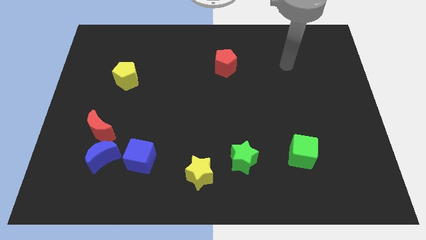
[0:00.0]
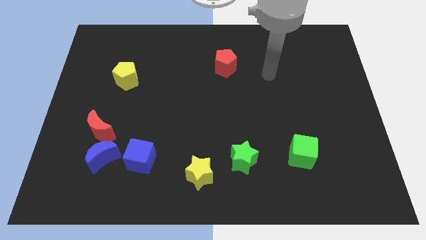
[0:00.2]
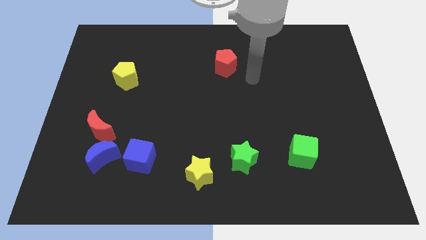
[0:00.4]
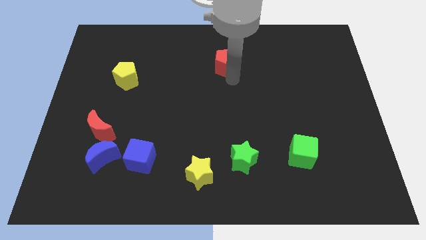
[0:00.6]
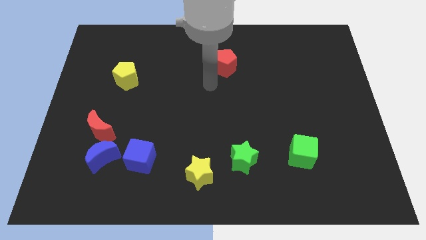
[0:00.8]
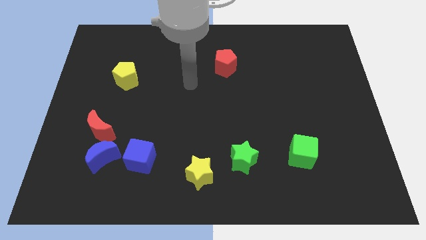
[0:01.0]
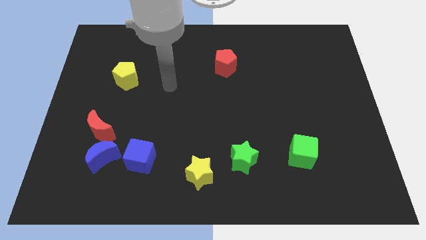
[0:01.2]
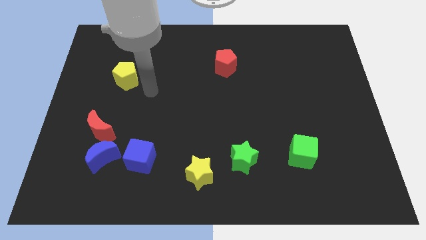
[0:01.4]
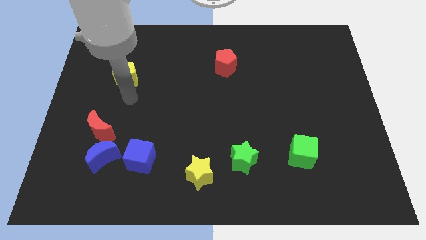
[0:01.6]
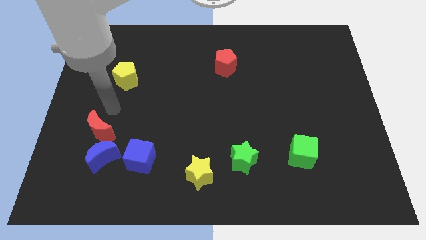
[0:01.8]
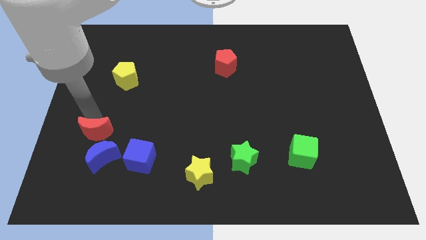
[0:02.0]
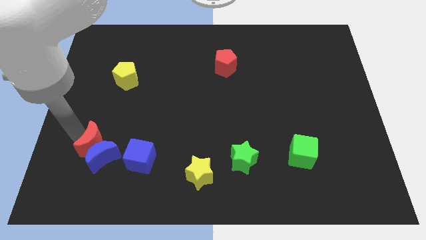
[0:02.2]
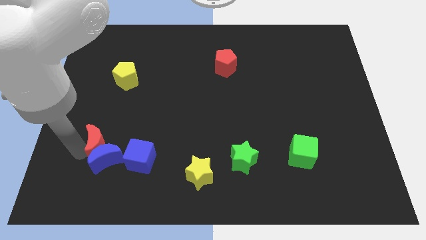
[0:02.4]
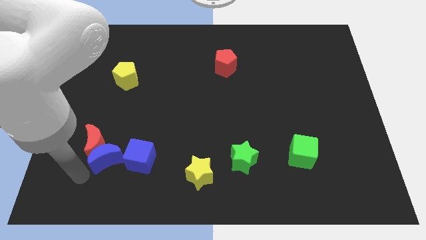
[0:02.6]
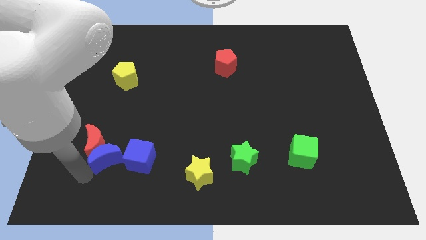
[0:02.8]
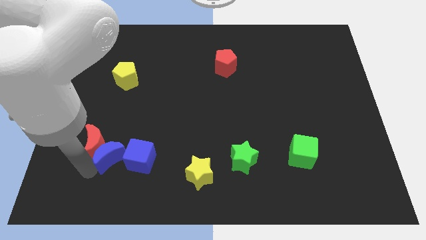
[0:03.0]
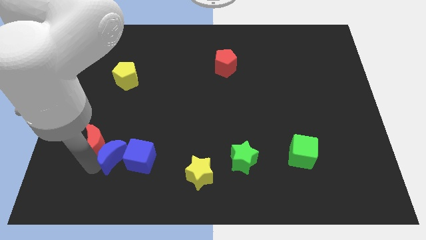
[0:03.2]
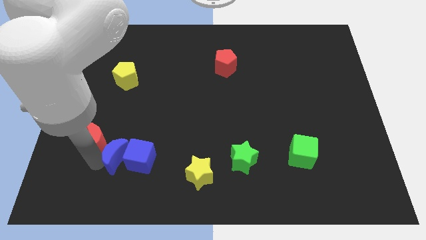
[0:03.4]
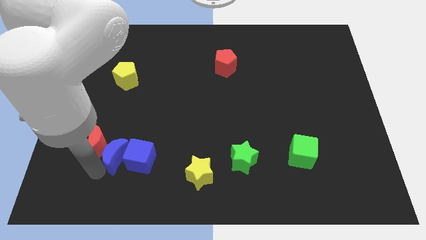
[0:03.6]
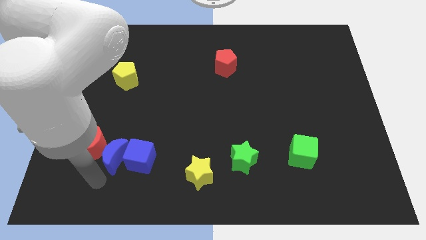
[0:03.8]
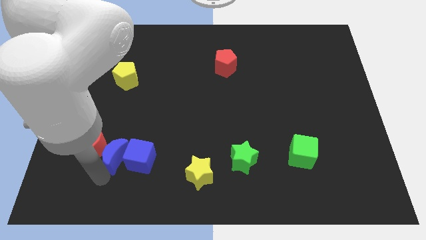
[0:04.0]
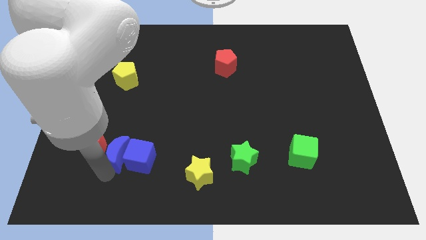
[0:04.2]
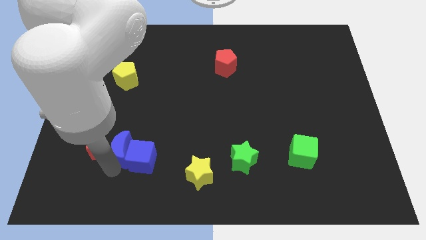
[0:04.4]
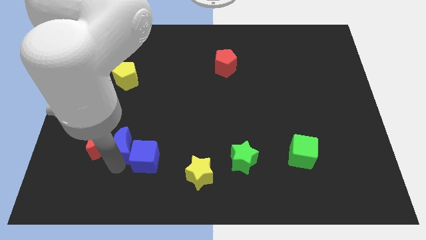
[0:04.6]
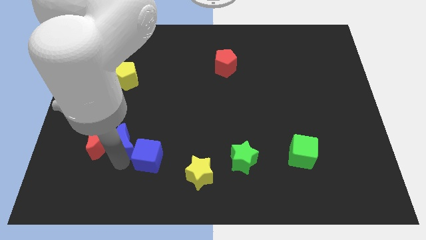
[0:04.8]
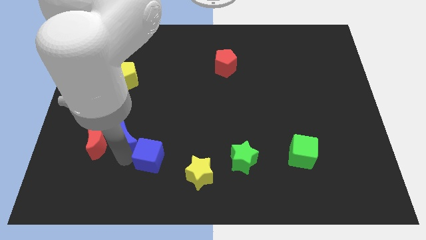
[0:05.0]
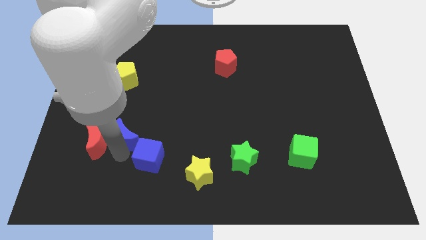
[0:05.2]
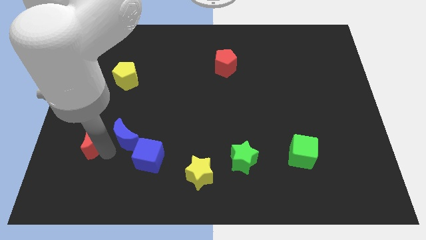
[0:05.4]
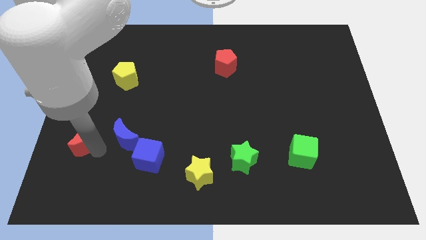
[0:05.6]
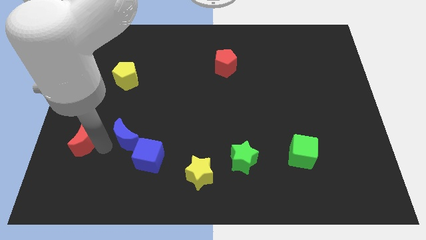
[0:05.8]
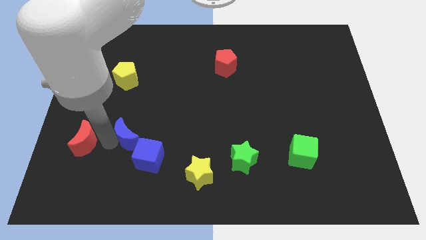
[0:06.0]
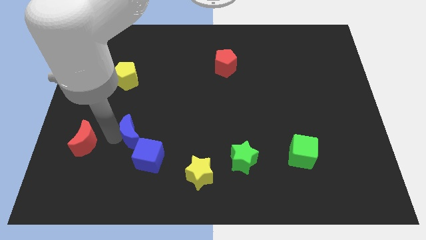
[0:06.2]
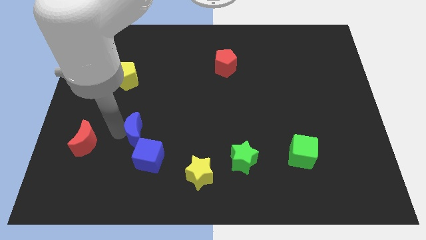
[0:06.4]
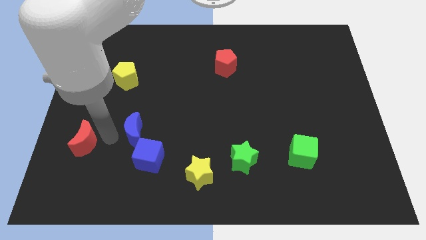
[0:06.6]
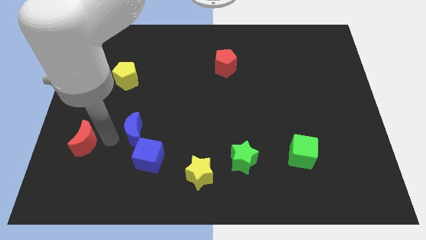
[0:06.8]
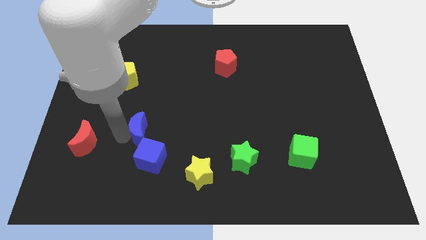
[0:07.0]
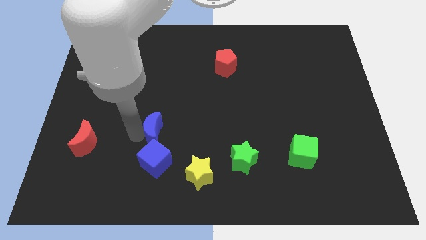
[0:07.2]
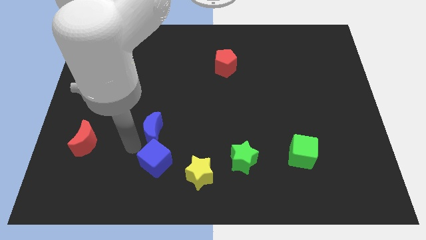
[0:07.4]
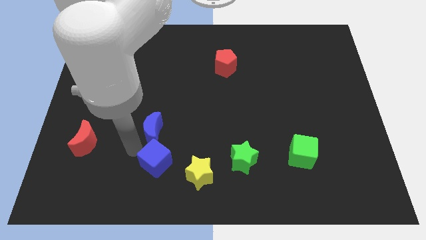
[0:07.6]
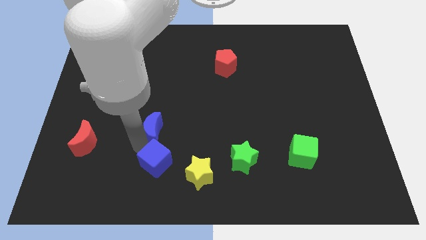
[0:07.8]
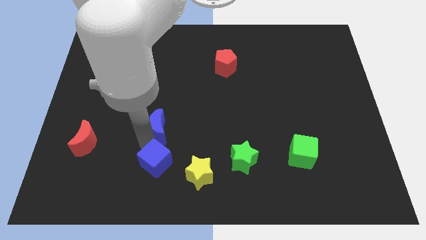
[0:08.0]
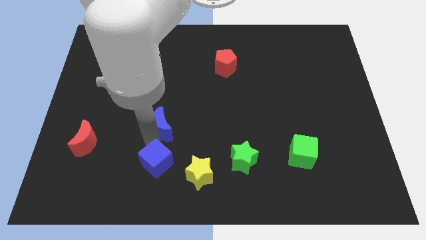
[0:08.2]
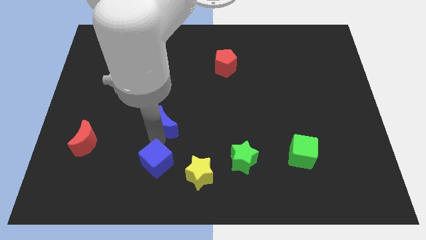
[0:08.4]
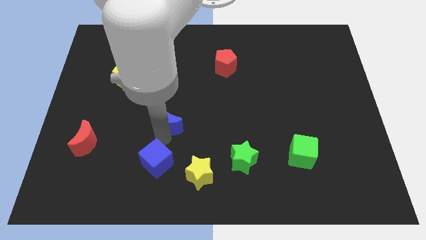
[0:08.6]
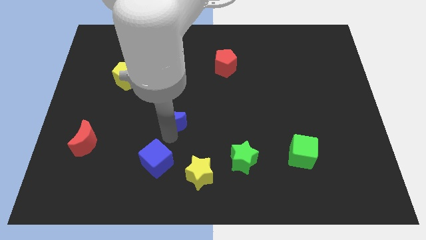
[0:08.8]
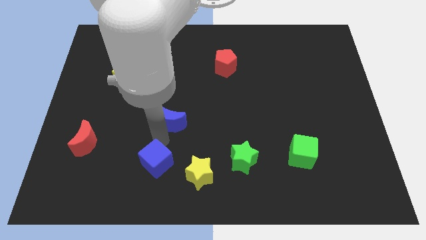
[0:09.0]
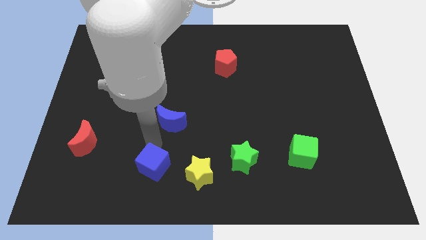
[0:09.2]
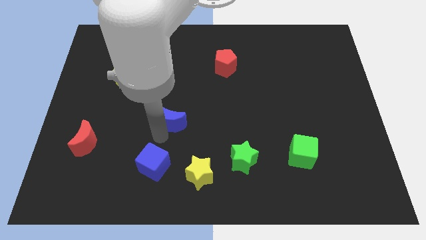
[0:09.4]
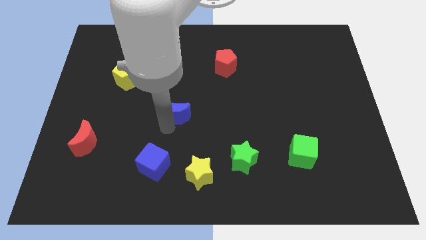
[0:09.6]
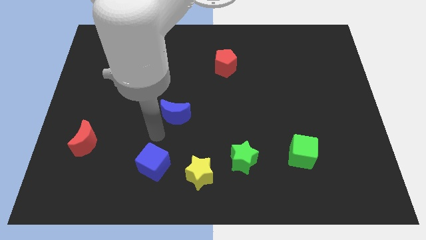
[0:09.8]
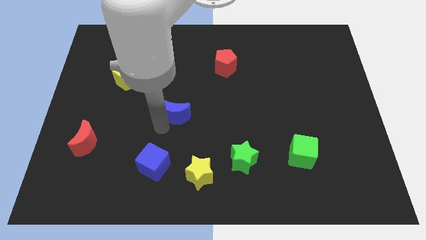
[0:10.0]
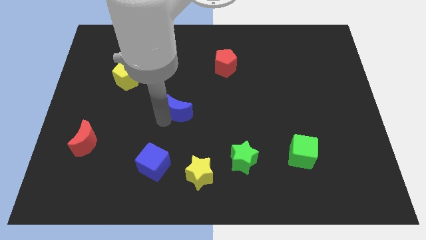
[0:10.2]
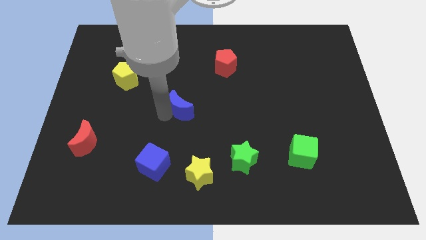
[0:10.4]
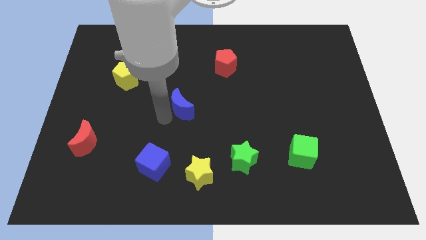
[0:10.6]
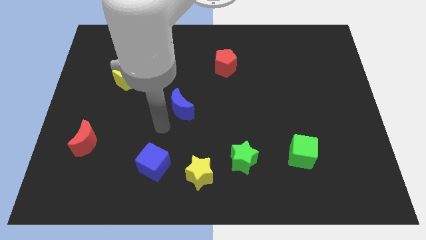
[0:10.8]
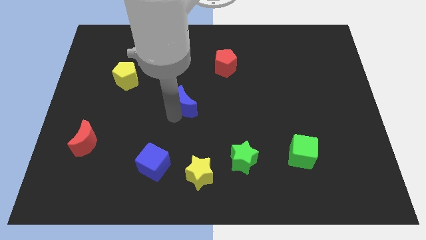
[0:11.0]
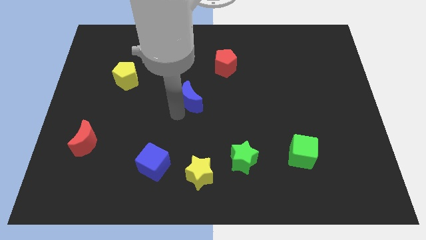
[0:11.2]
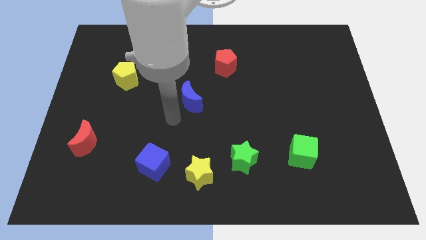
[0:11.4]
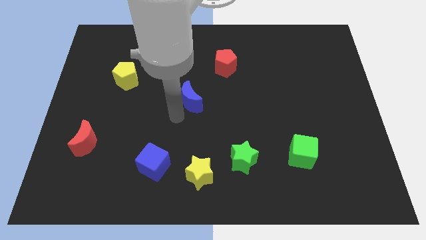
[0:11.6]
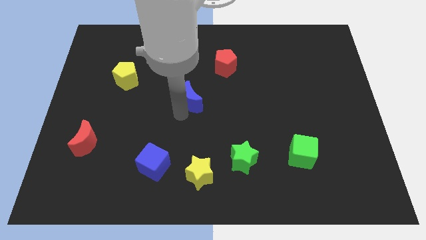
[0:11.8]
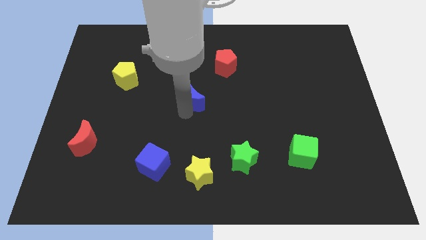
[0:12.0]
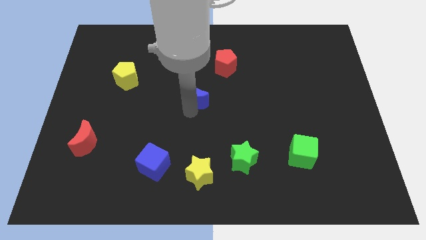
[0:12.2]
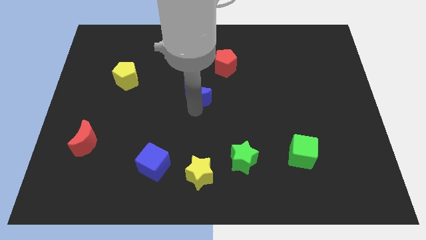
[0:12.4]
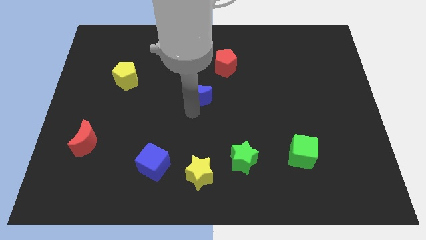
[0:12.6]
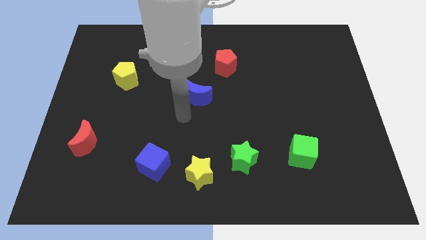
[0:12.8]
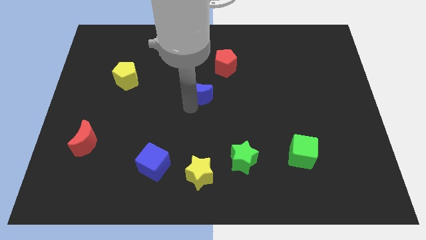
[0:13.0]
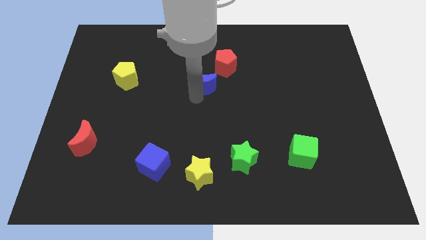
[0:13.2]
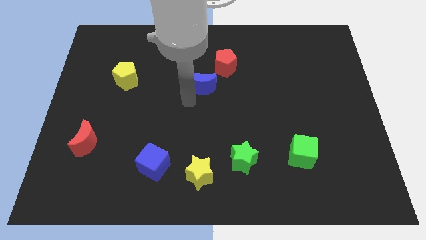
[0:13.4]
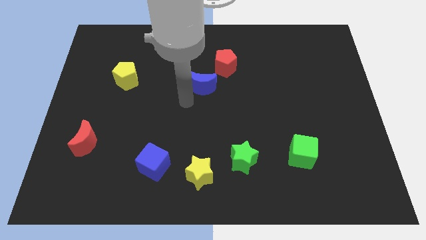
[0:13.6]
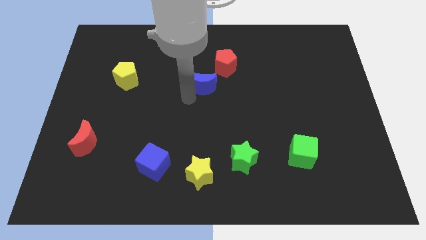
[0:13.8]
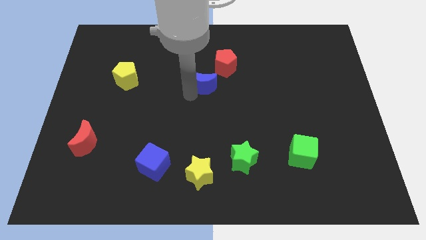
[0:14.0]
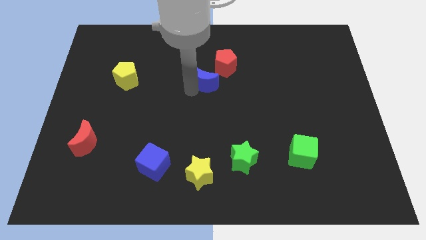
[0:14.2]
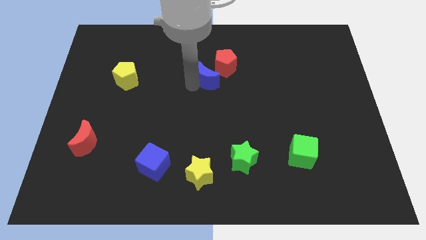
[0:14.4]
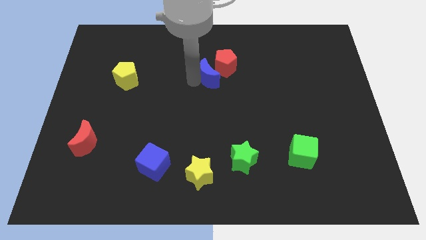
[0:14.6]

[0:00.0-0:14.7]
move the blue moon next to the red pentagon
